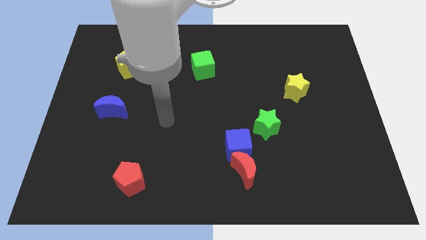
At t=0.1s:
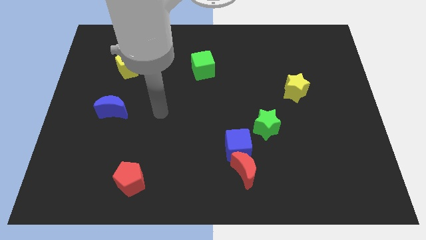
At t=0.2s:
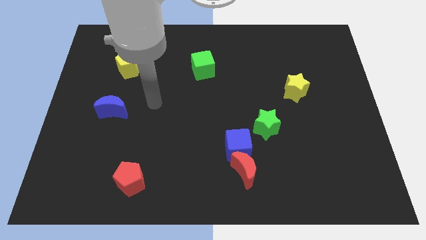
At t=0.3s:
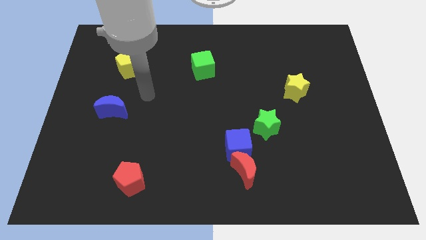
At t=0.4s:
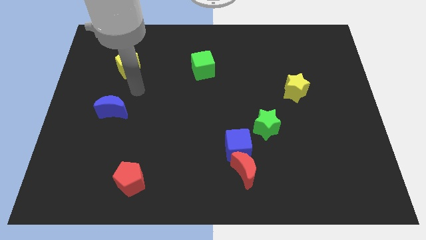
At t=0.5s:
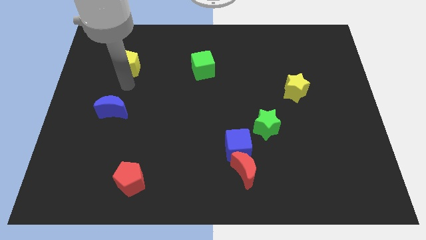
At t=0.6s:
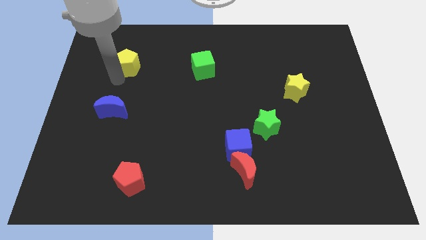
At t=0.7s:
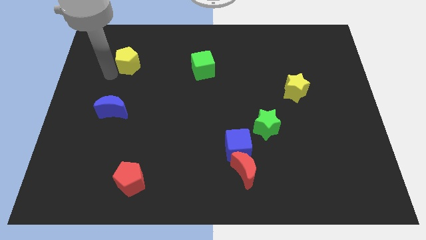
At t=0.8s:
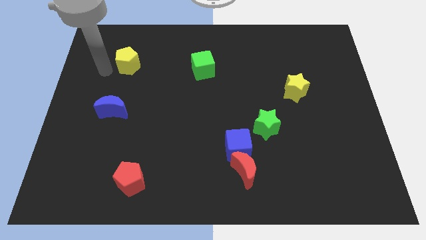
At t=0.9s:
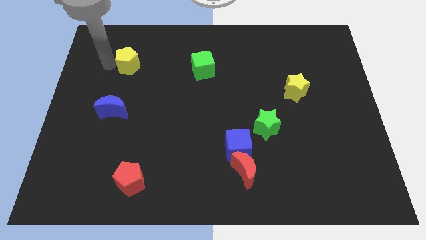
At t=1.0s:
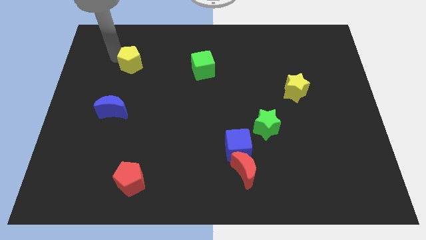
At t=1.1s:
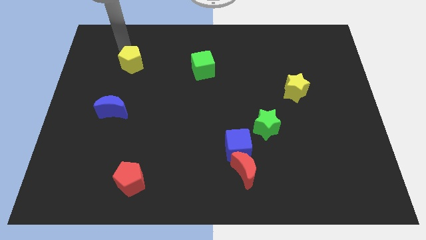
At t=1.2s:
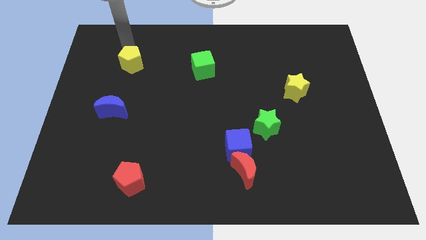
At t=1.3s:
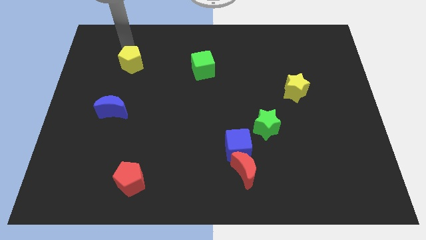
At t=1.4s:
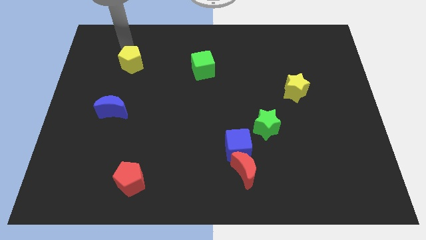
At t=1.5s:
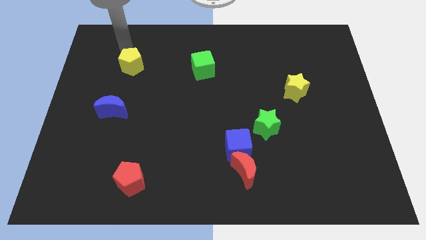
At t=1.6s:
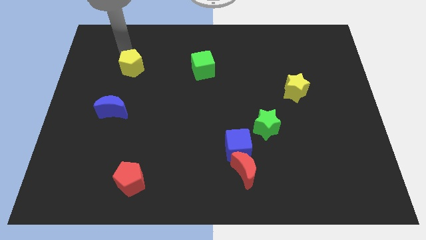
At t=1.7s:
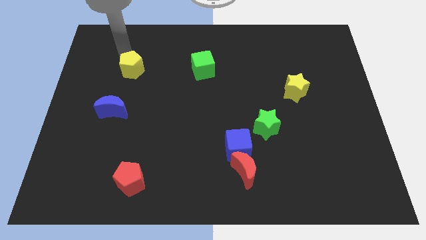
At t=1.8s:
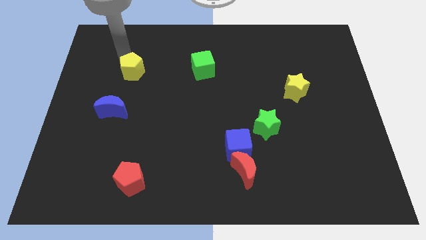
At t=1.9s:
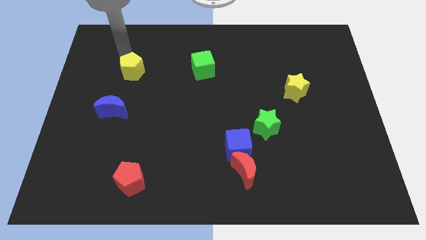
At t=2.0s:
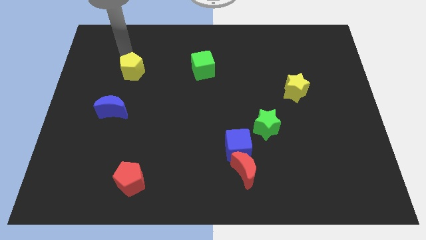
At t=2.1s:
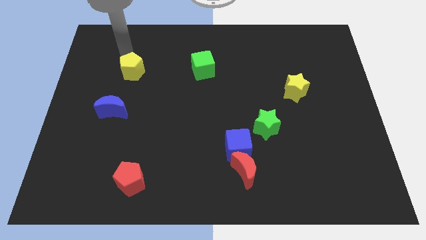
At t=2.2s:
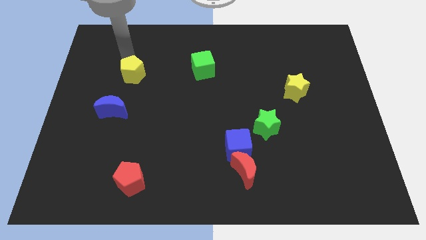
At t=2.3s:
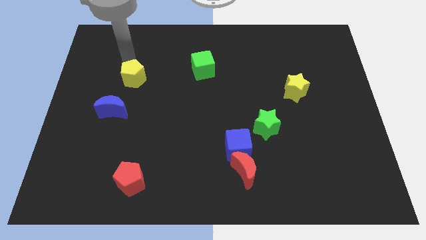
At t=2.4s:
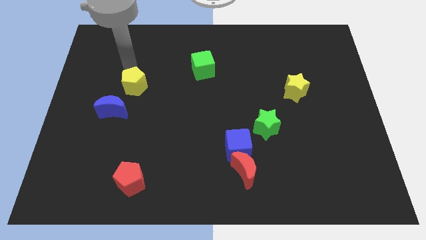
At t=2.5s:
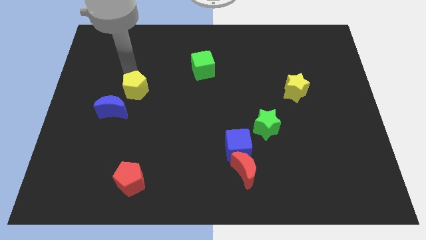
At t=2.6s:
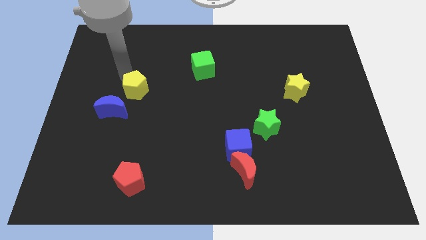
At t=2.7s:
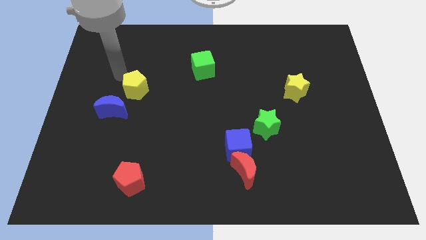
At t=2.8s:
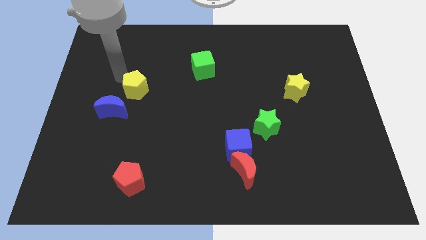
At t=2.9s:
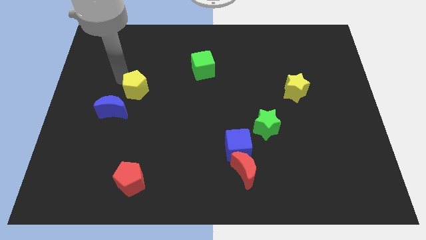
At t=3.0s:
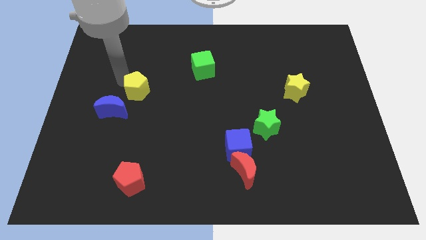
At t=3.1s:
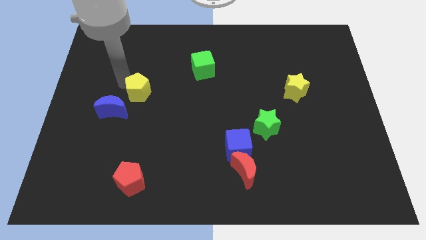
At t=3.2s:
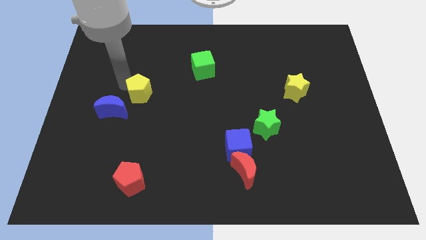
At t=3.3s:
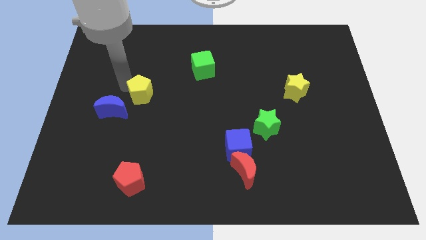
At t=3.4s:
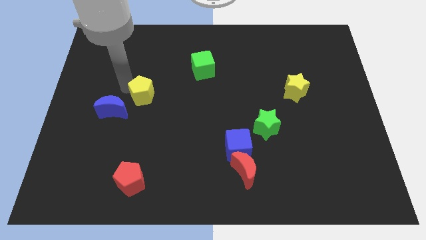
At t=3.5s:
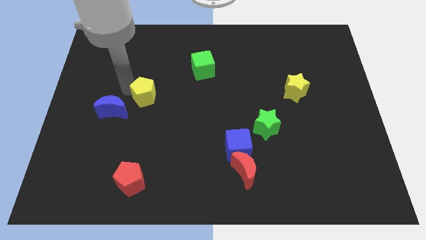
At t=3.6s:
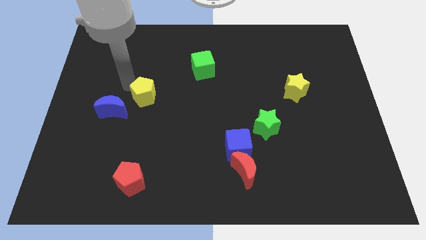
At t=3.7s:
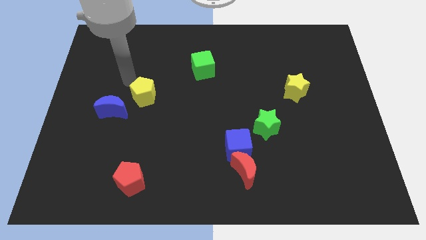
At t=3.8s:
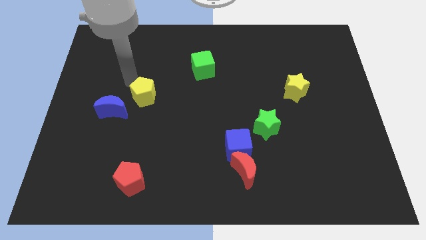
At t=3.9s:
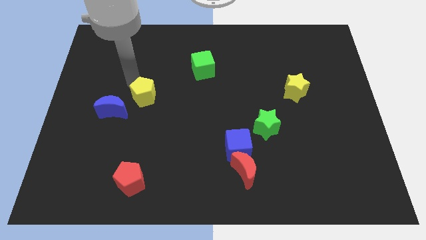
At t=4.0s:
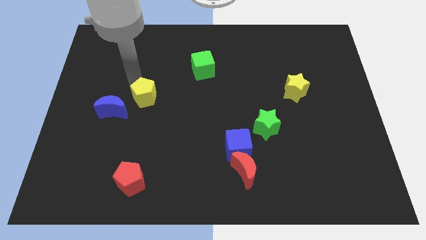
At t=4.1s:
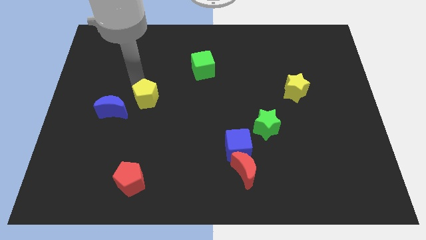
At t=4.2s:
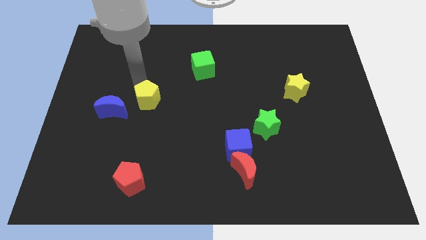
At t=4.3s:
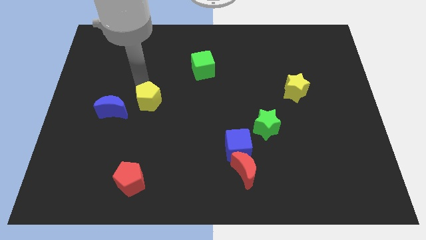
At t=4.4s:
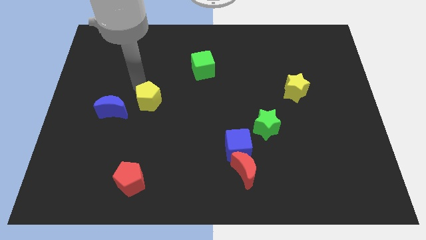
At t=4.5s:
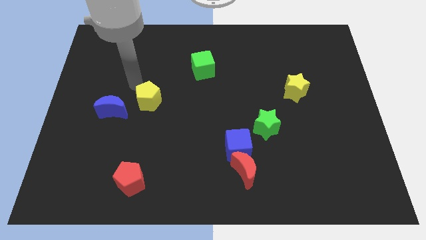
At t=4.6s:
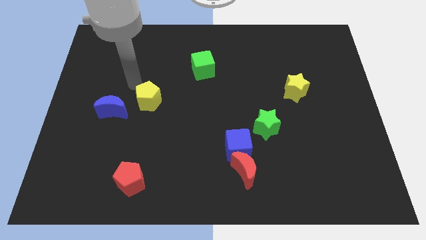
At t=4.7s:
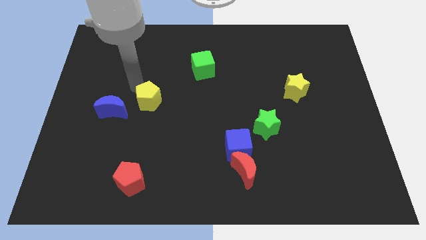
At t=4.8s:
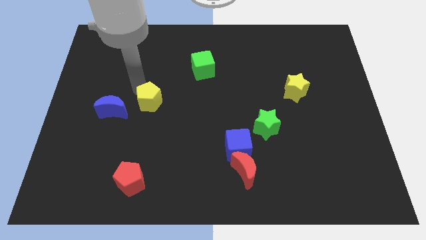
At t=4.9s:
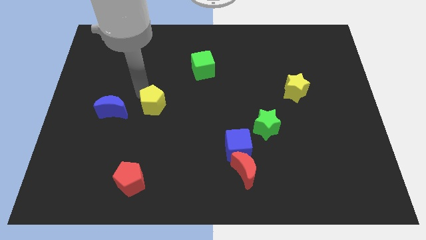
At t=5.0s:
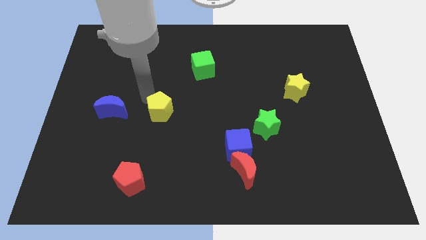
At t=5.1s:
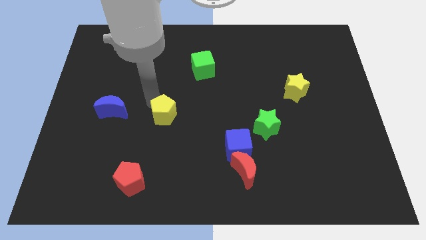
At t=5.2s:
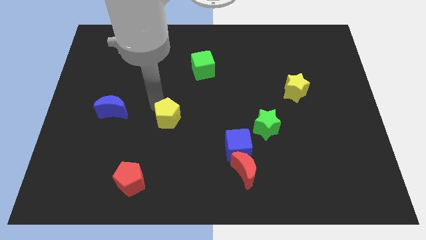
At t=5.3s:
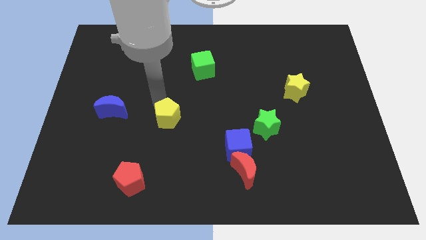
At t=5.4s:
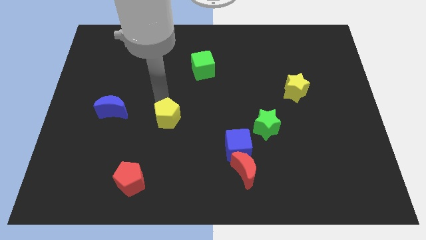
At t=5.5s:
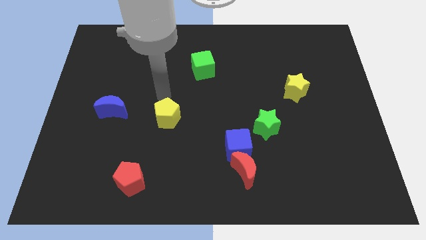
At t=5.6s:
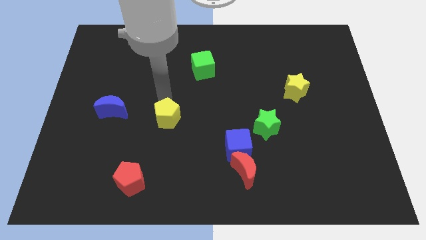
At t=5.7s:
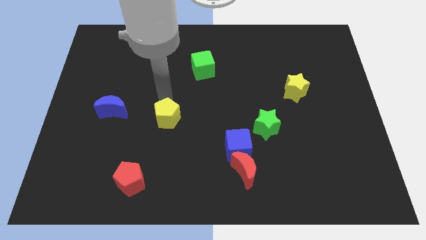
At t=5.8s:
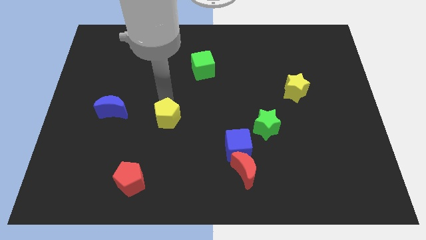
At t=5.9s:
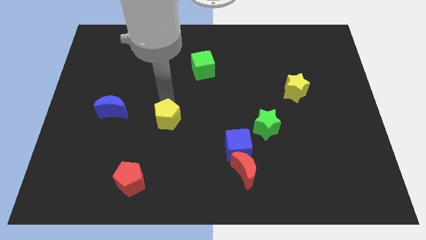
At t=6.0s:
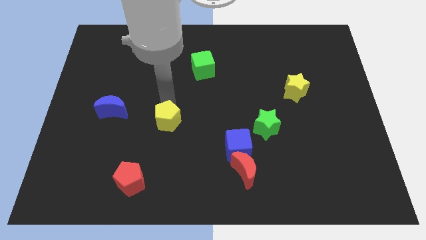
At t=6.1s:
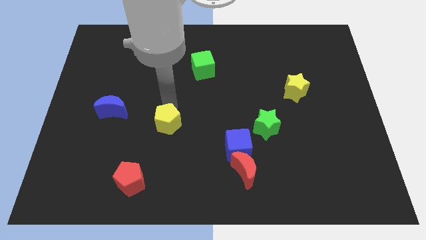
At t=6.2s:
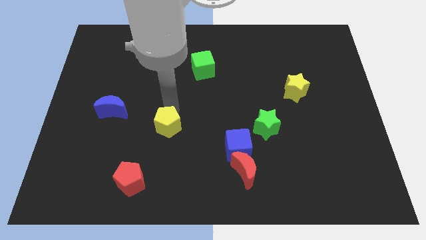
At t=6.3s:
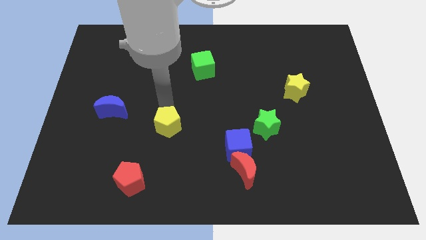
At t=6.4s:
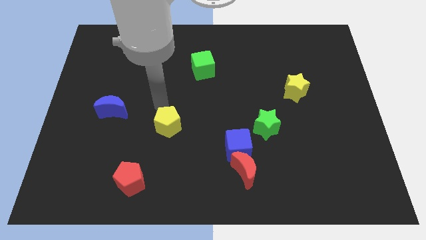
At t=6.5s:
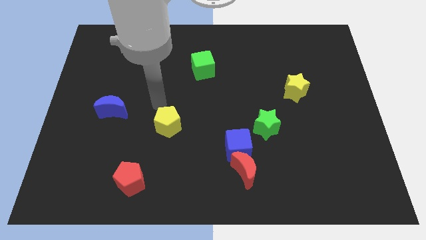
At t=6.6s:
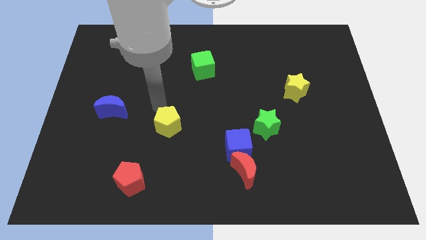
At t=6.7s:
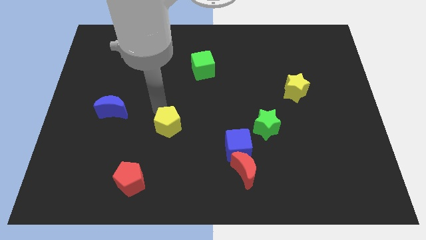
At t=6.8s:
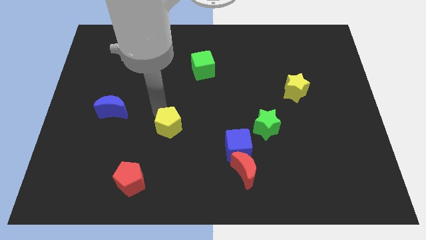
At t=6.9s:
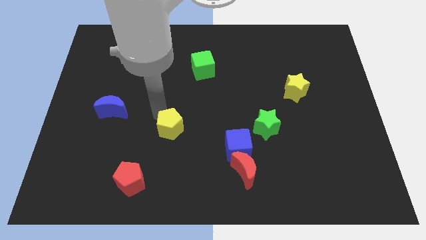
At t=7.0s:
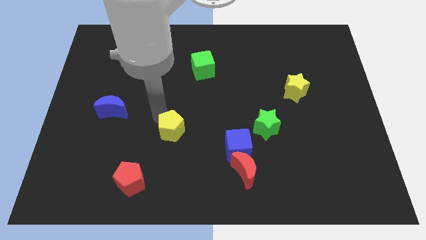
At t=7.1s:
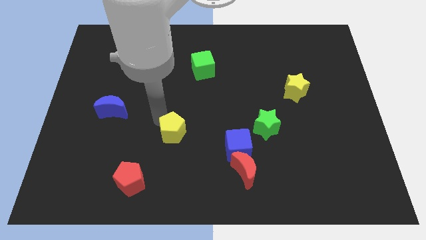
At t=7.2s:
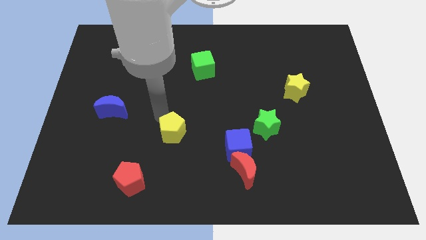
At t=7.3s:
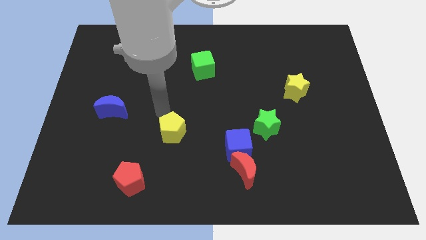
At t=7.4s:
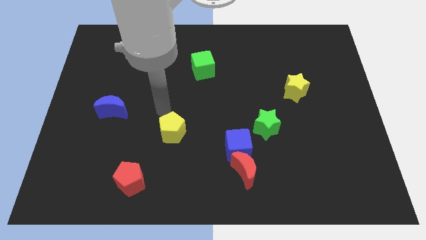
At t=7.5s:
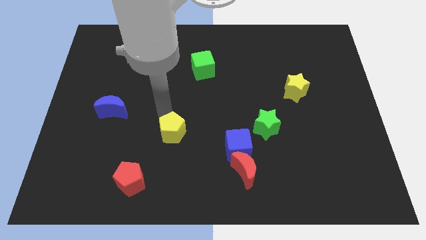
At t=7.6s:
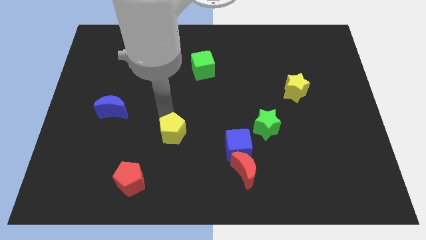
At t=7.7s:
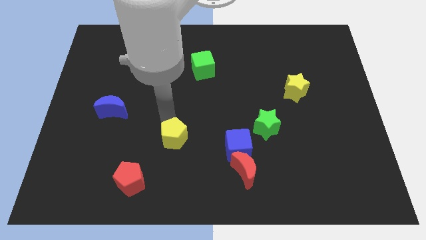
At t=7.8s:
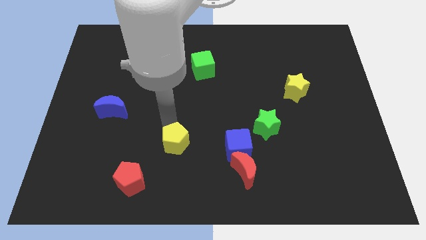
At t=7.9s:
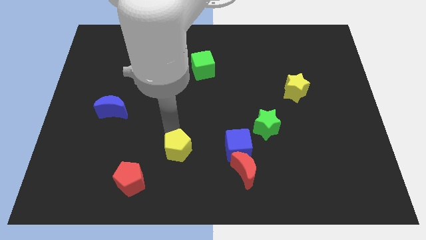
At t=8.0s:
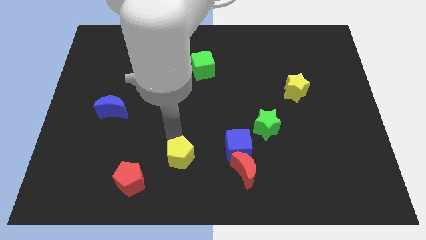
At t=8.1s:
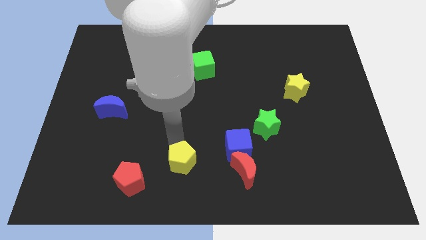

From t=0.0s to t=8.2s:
push the yellow pentagon to the bottom side
